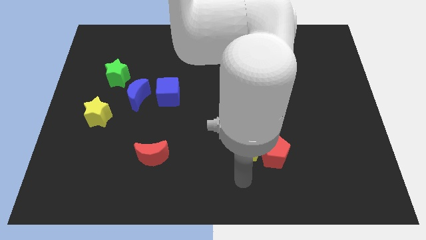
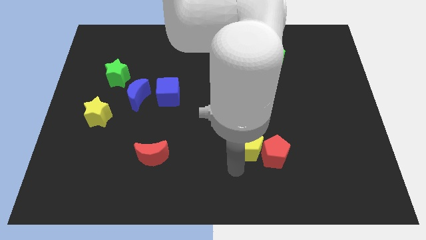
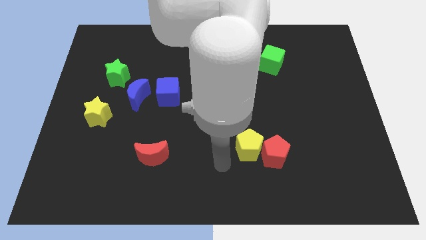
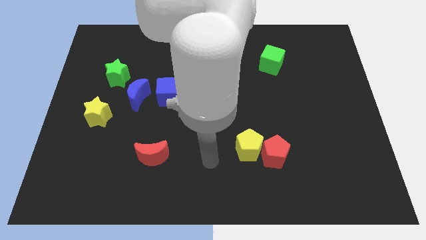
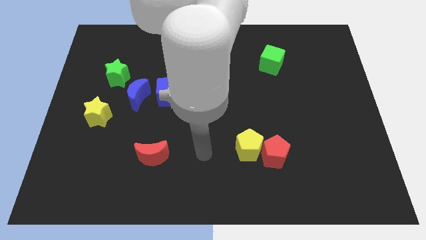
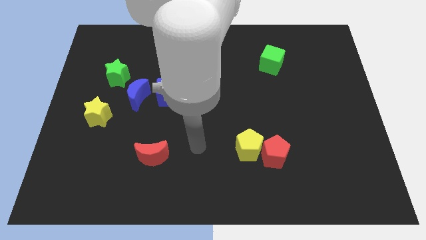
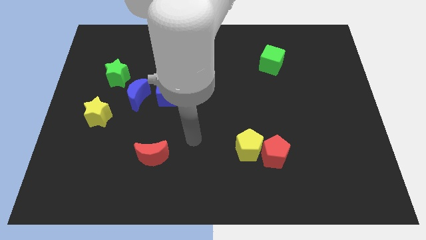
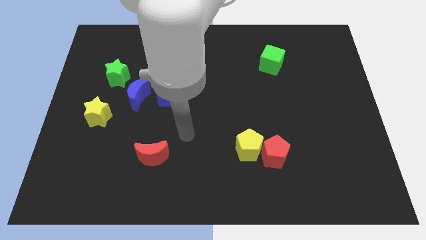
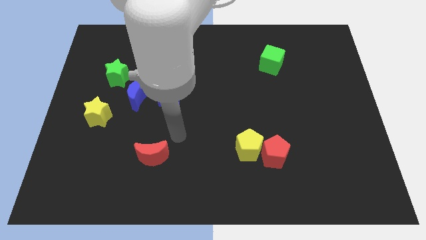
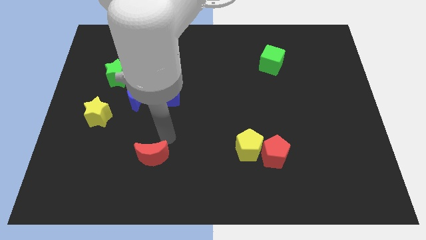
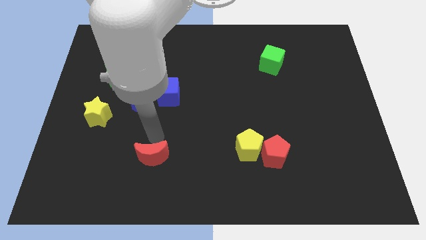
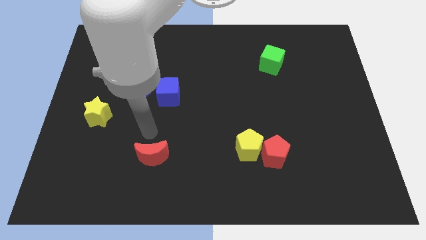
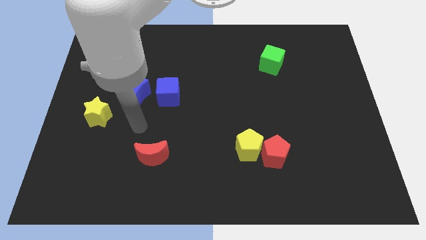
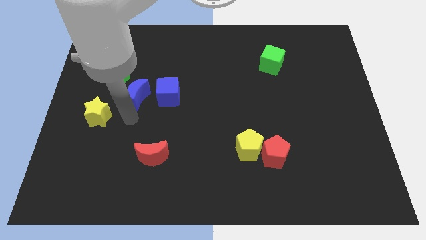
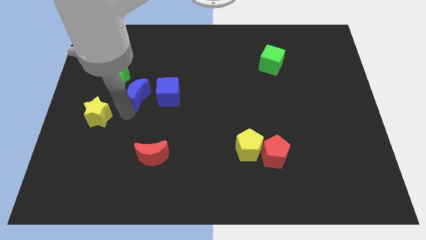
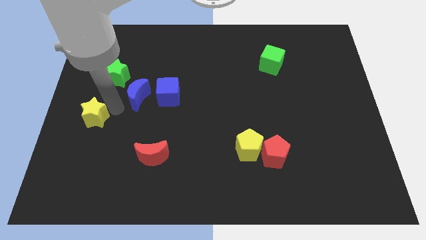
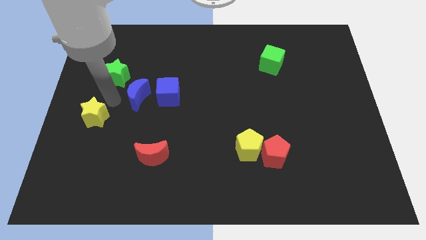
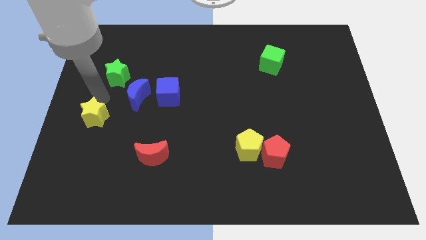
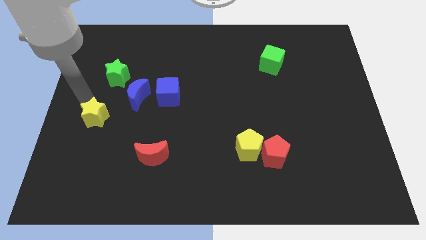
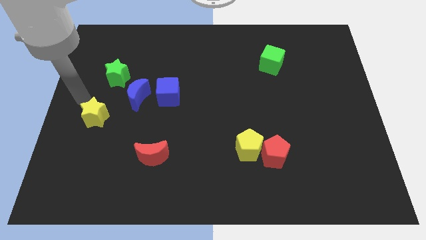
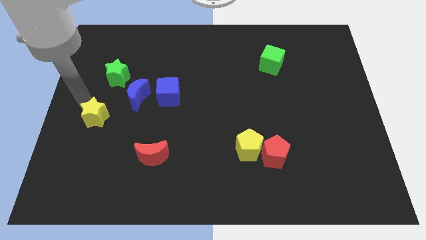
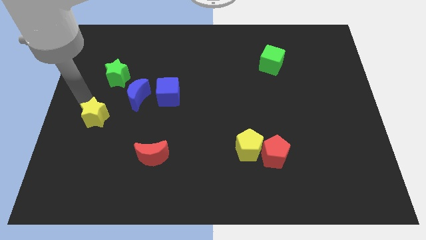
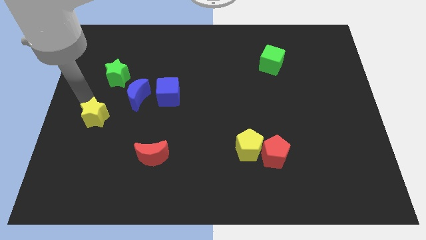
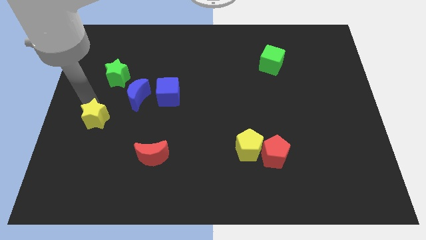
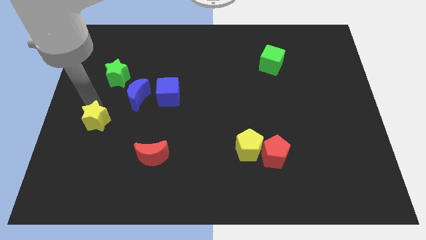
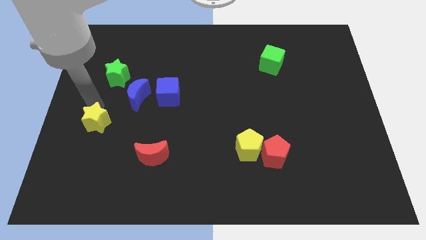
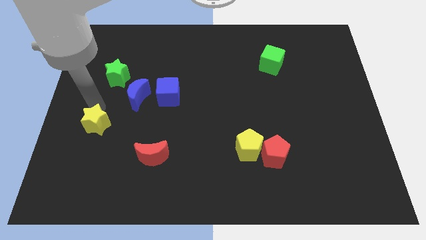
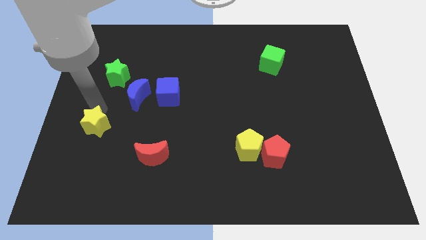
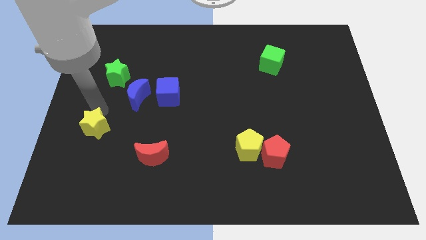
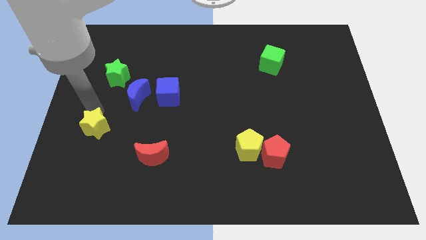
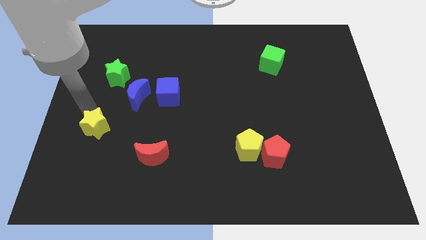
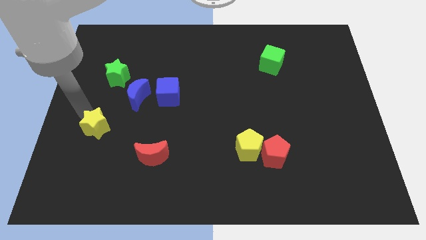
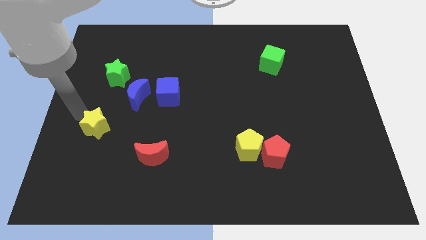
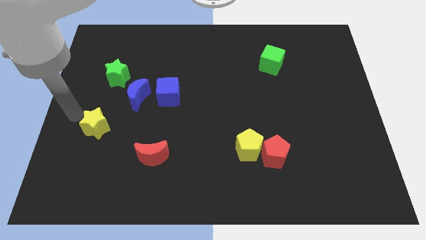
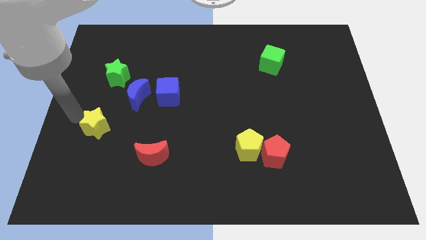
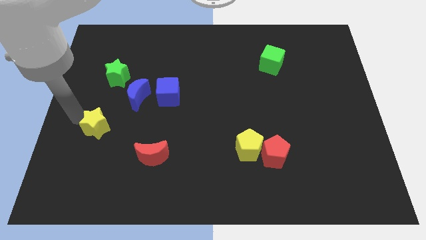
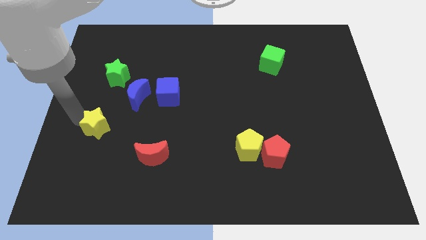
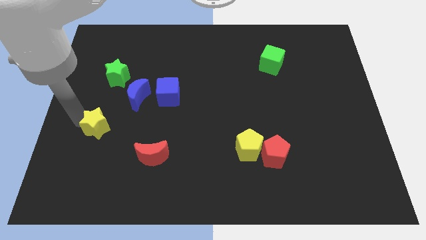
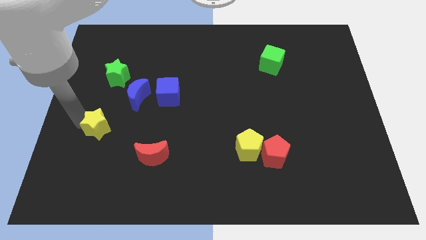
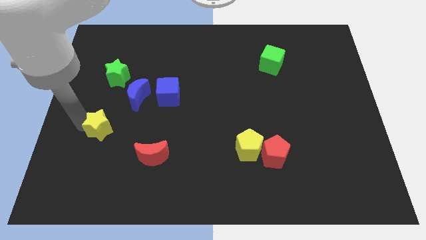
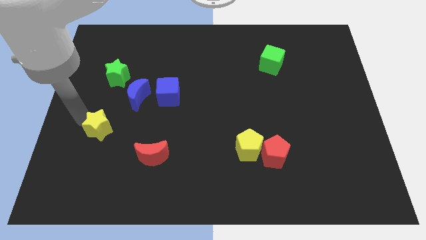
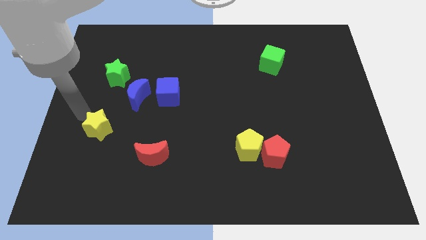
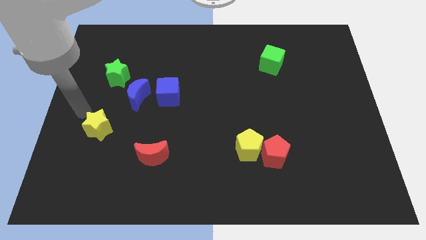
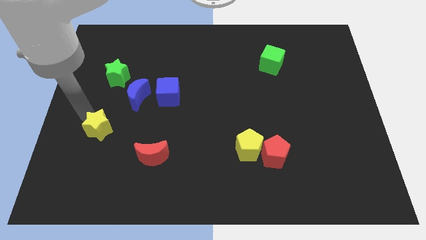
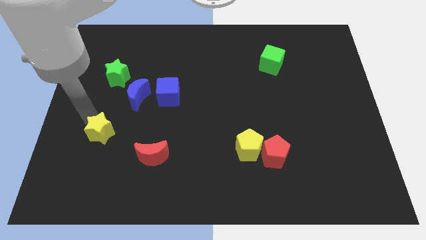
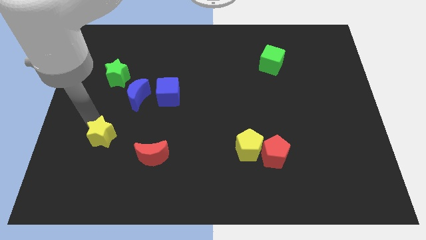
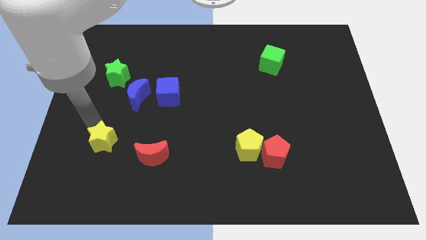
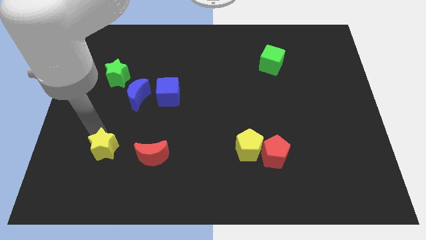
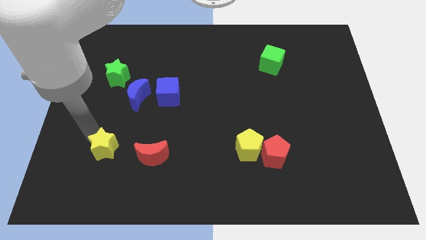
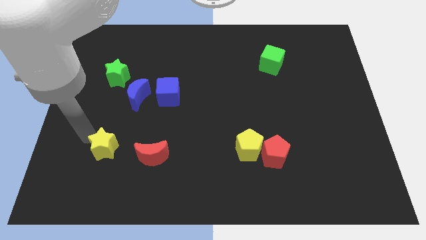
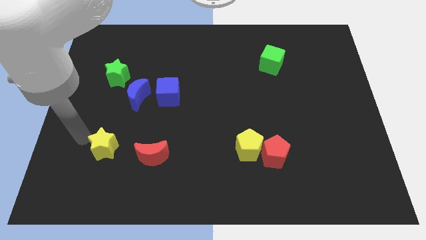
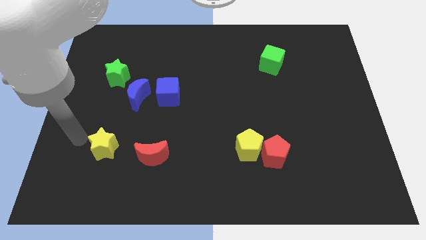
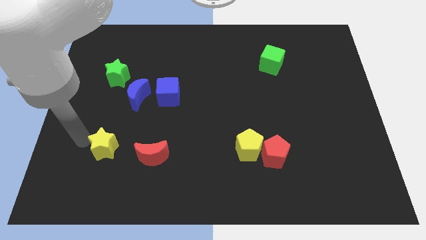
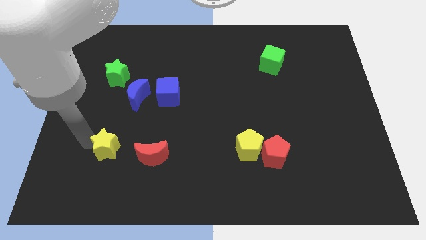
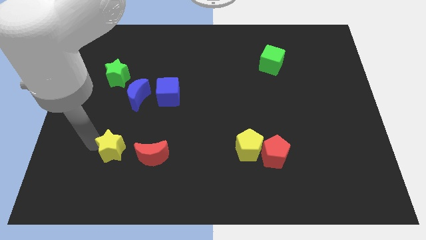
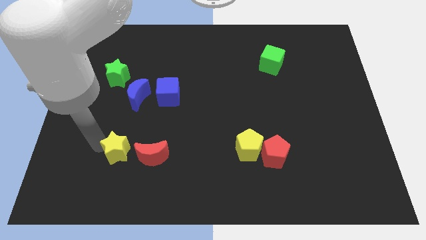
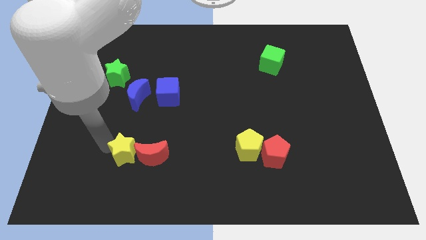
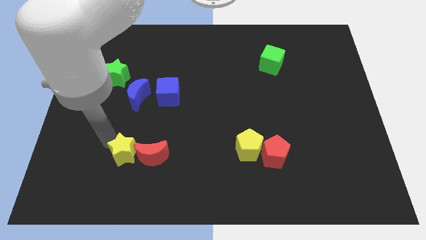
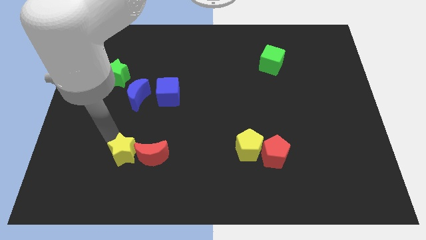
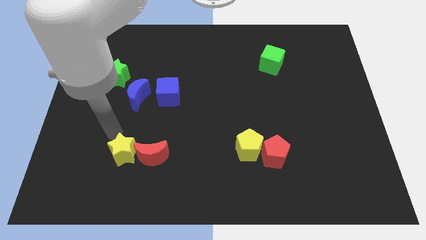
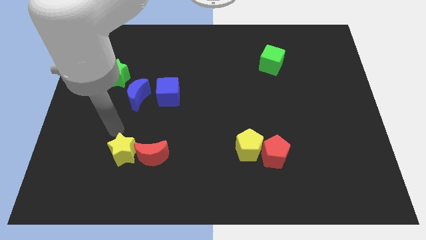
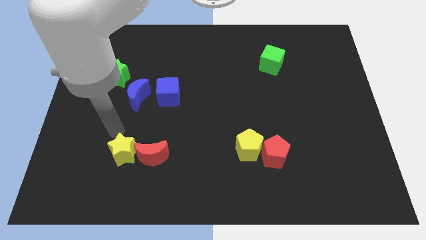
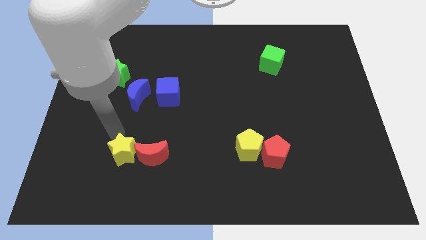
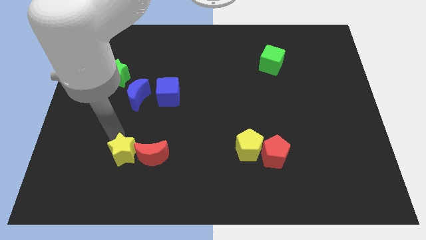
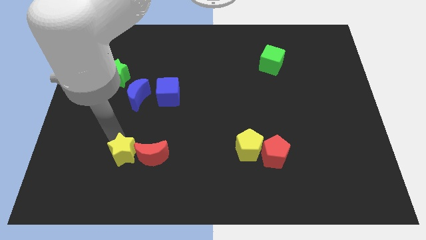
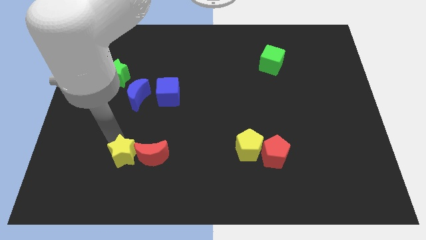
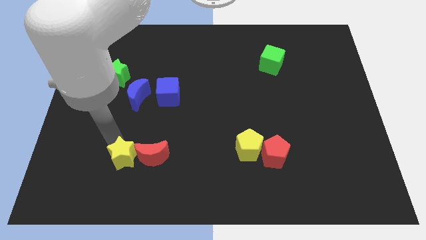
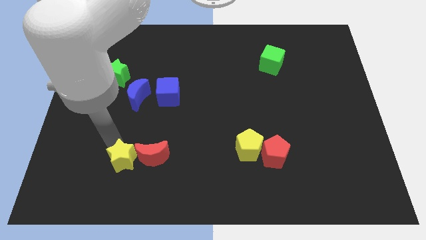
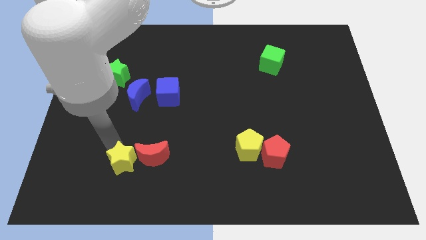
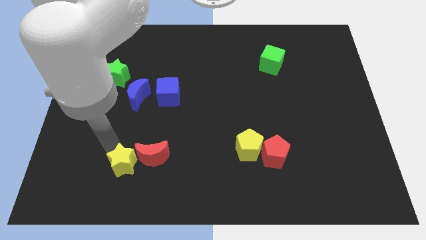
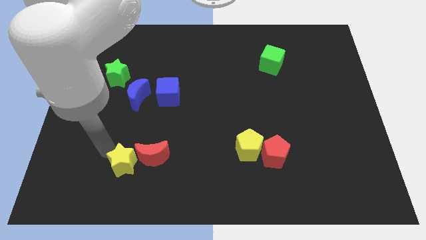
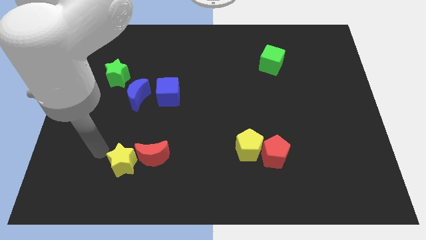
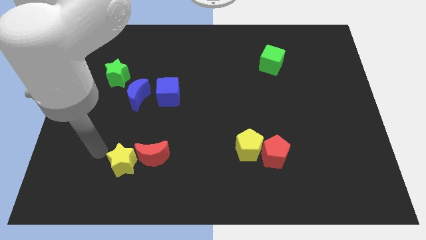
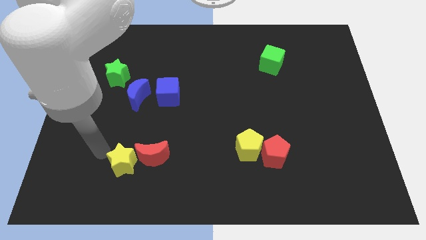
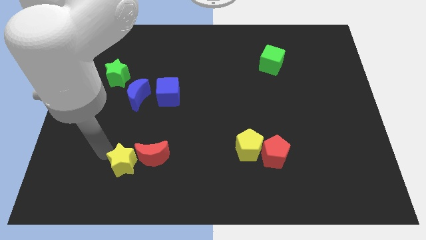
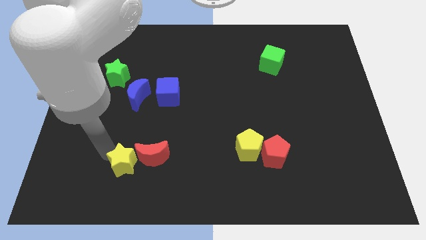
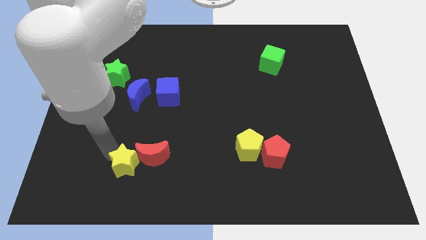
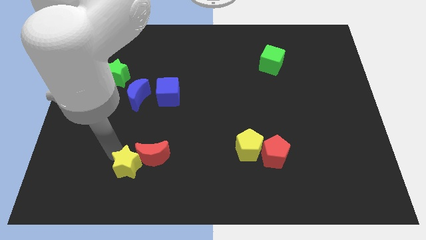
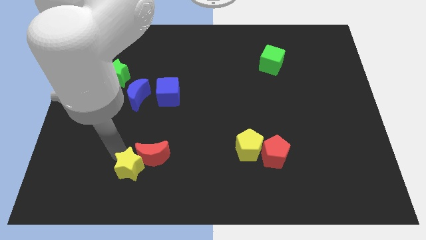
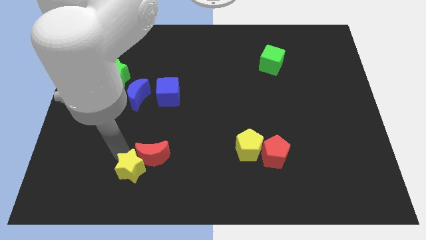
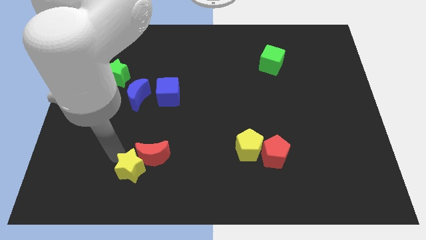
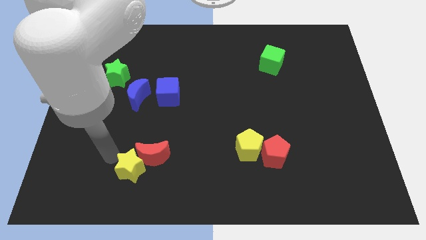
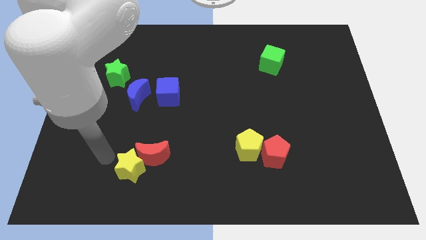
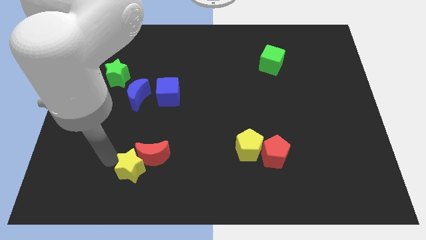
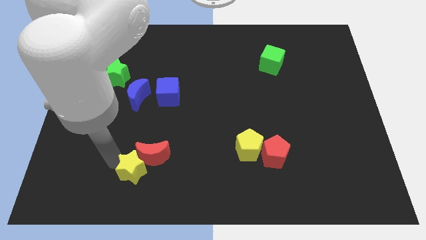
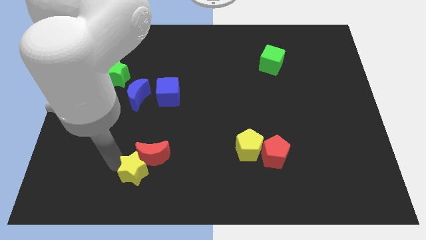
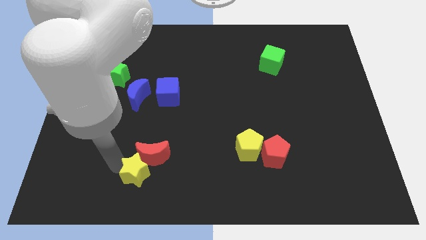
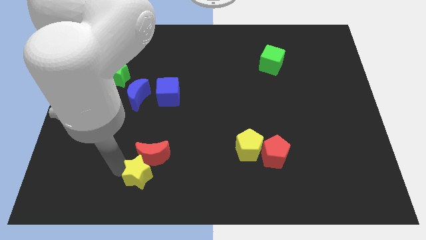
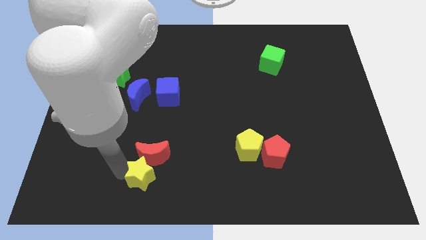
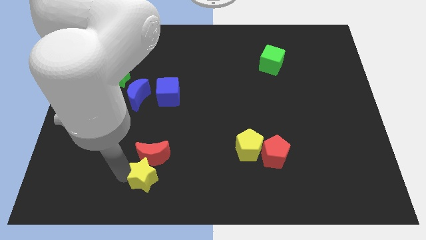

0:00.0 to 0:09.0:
put the yellow star diagonally down and to the right of the red moon
